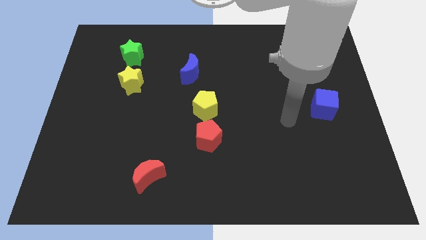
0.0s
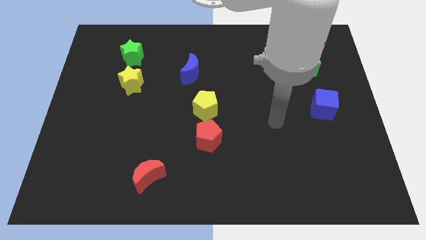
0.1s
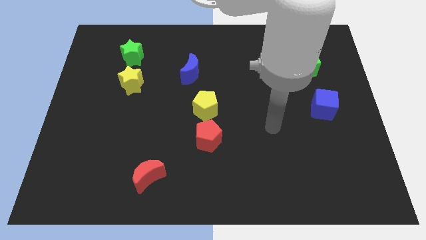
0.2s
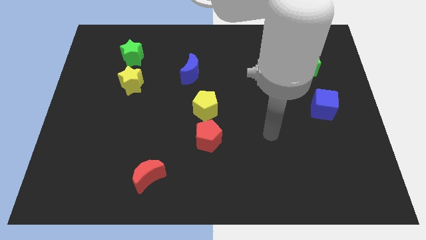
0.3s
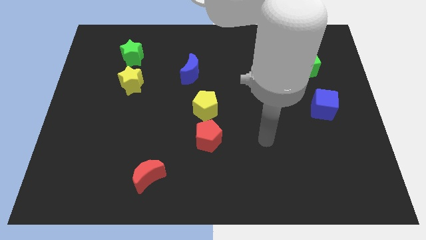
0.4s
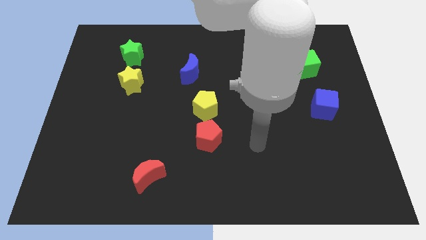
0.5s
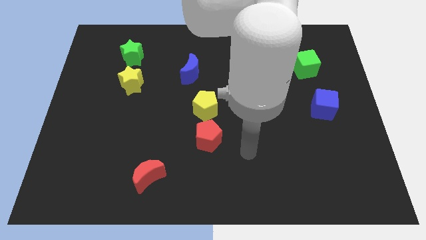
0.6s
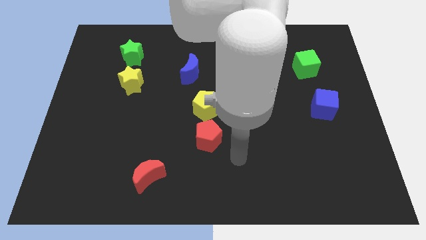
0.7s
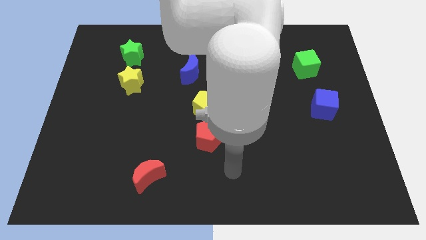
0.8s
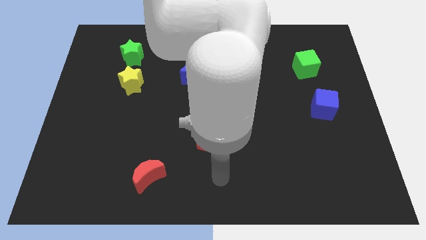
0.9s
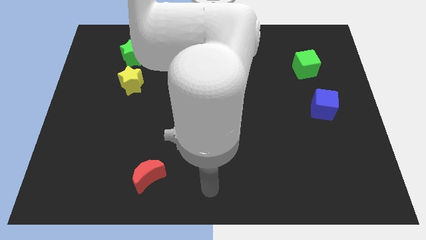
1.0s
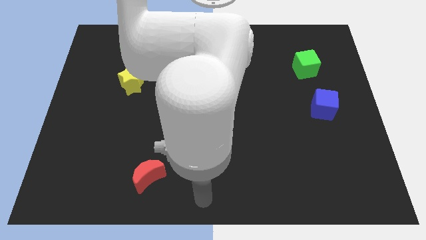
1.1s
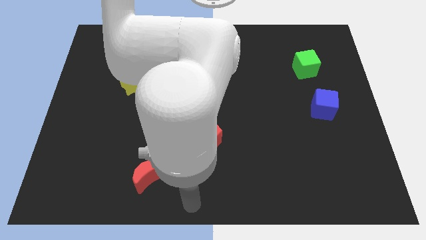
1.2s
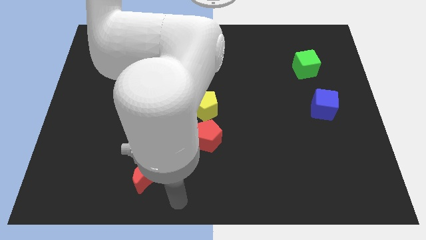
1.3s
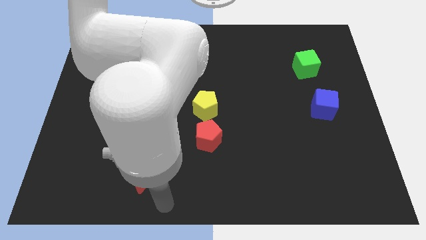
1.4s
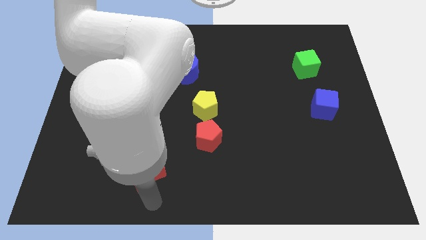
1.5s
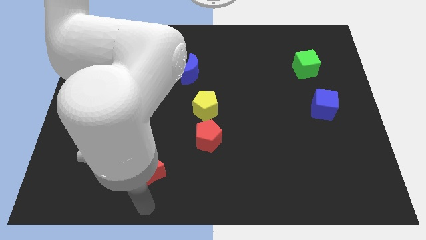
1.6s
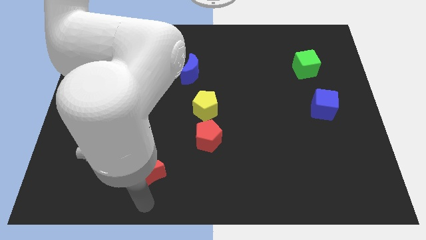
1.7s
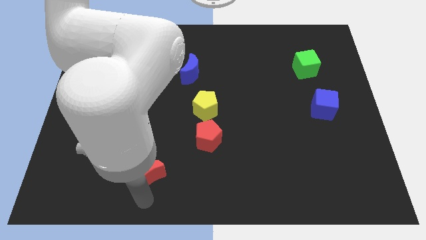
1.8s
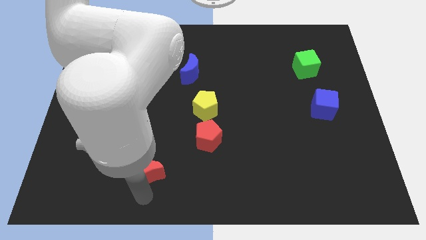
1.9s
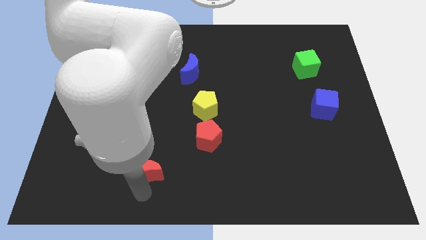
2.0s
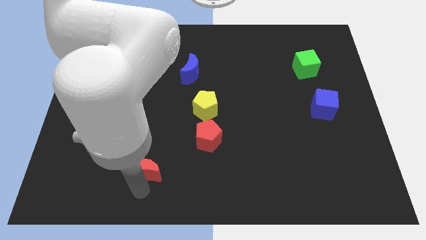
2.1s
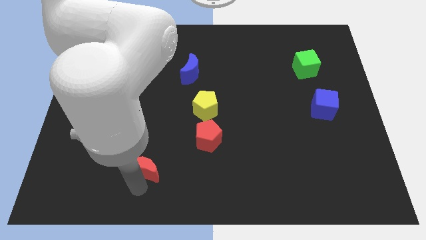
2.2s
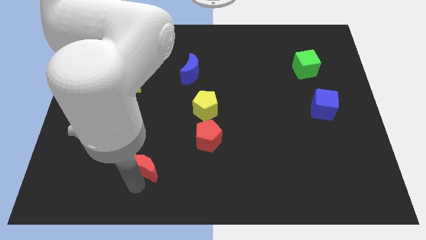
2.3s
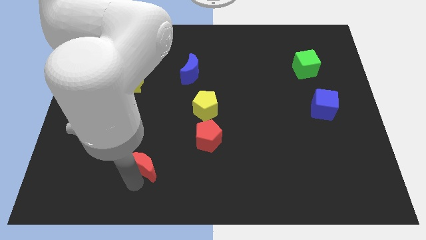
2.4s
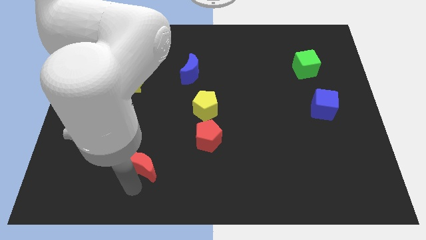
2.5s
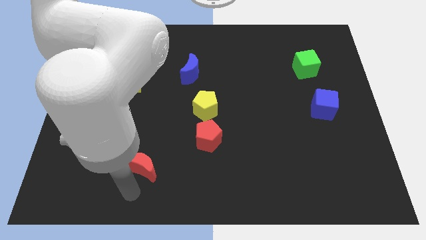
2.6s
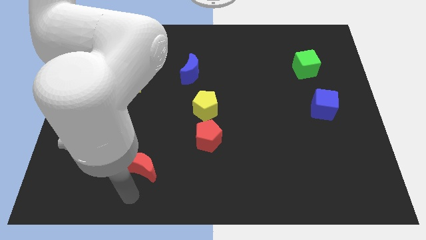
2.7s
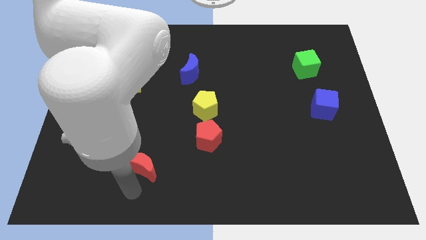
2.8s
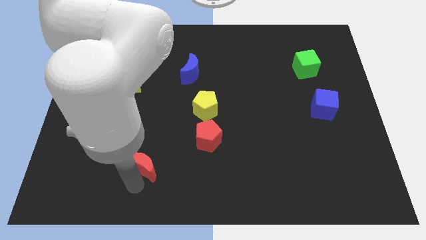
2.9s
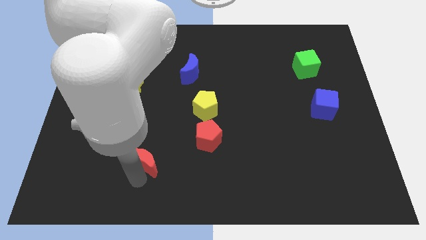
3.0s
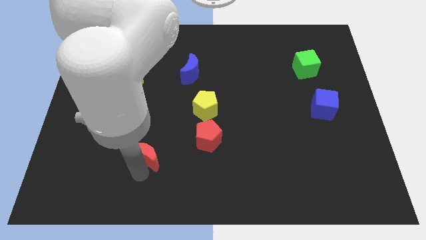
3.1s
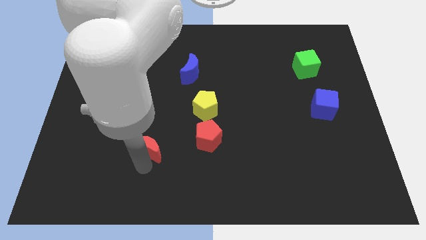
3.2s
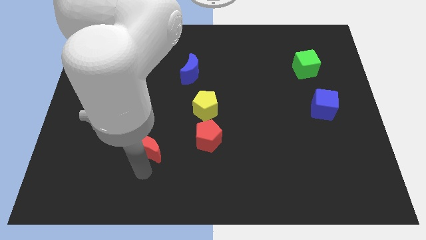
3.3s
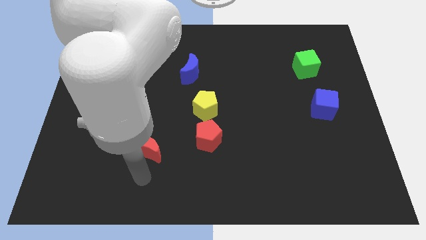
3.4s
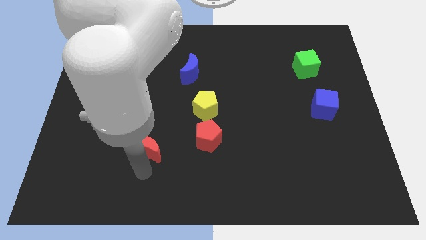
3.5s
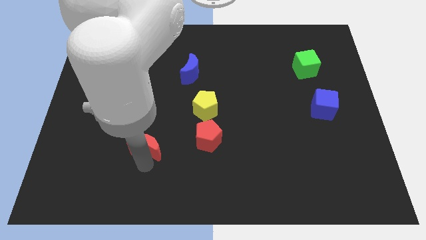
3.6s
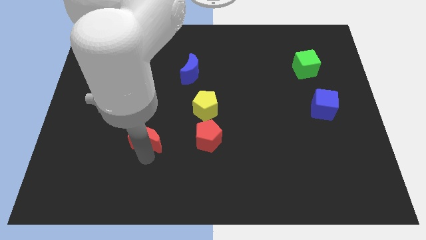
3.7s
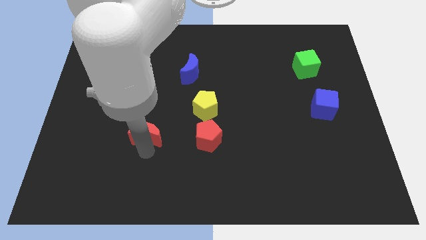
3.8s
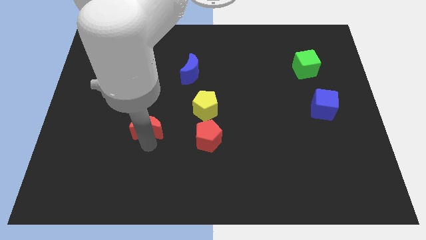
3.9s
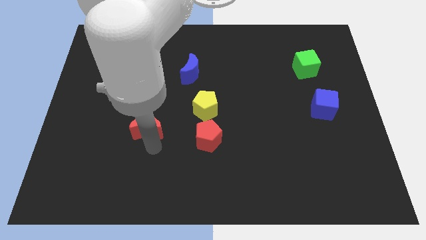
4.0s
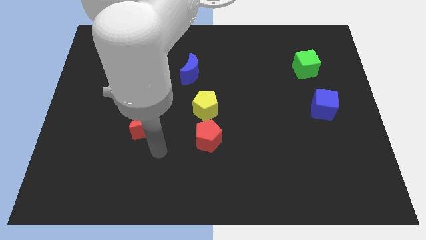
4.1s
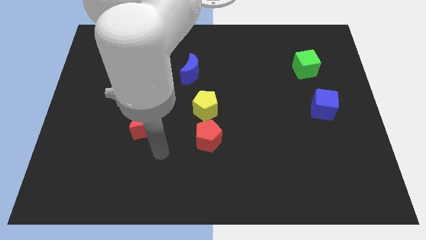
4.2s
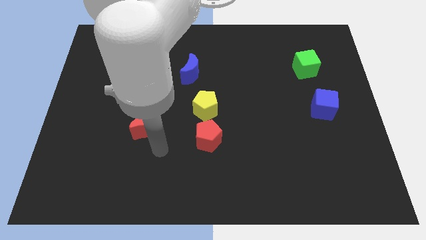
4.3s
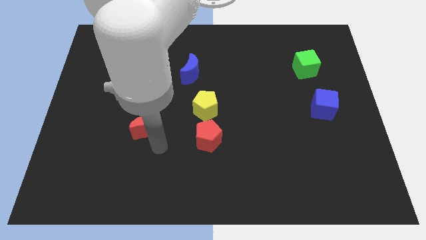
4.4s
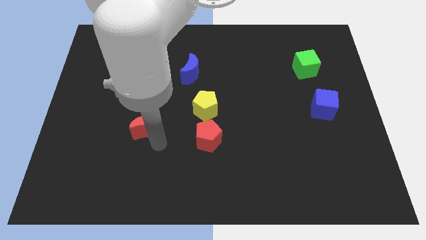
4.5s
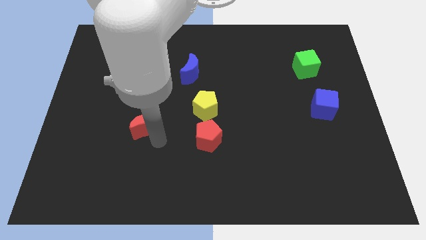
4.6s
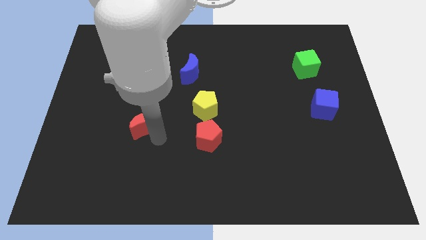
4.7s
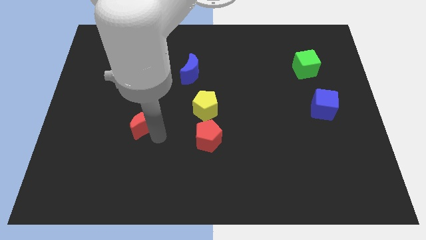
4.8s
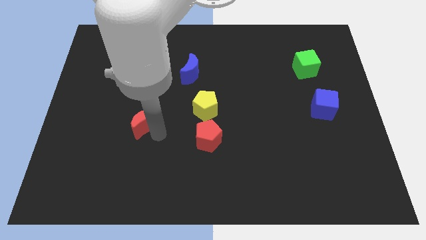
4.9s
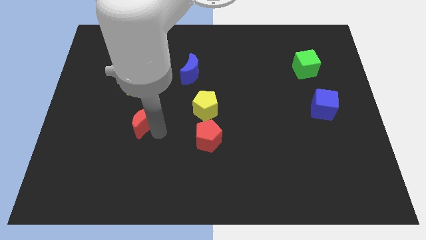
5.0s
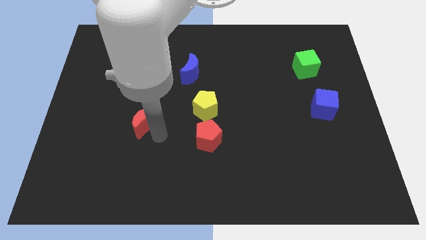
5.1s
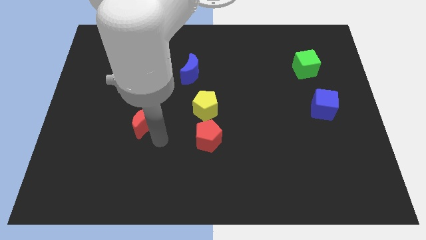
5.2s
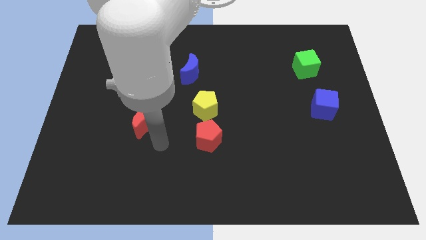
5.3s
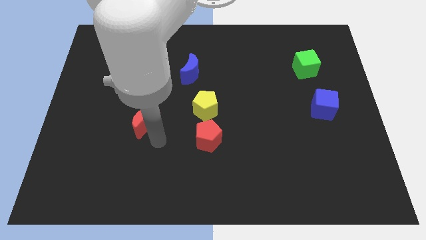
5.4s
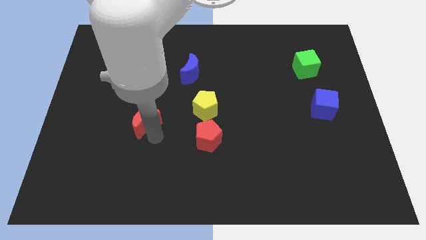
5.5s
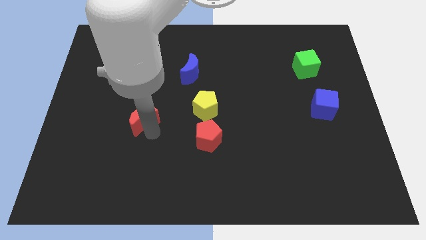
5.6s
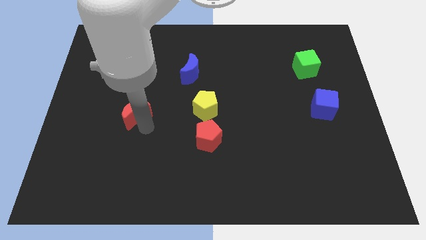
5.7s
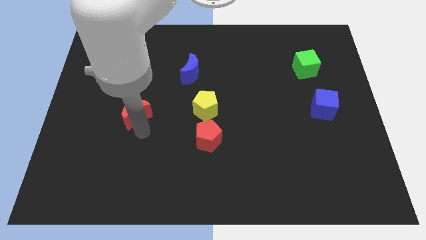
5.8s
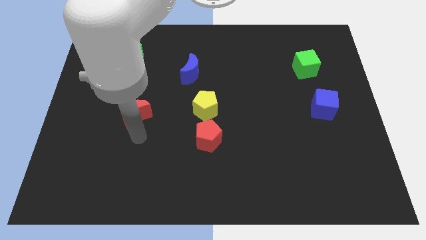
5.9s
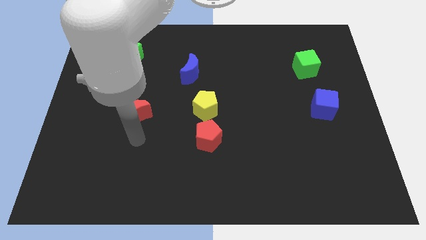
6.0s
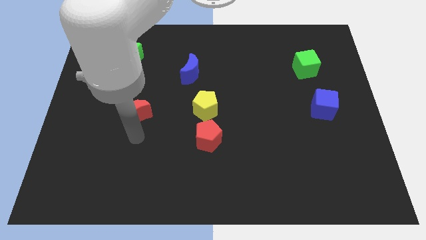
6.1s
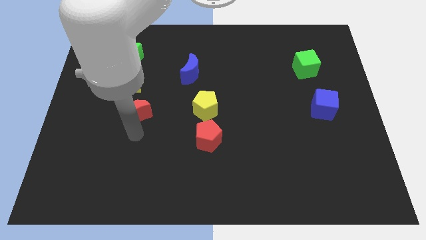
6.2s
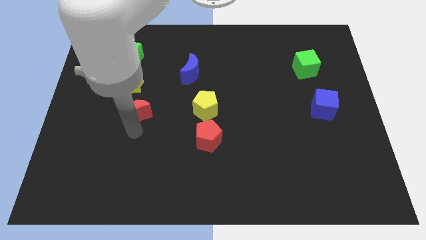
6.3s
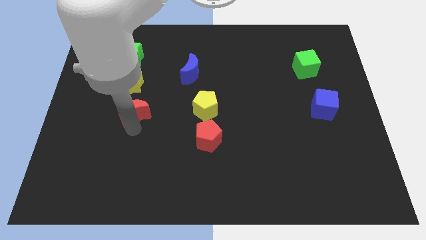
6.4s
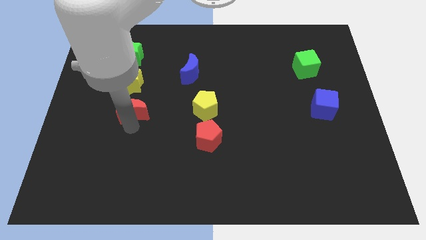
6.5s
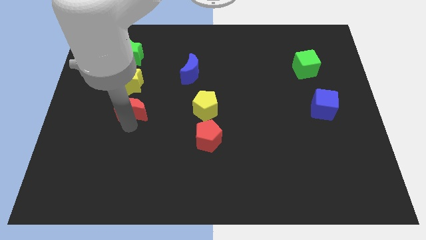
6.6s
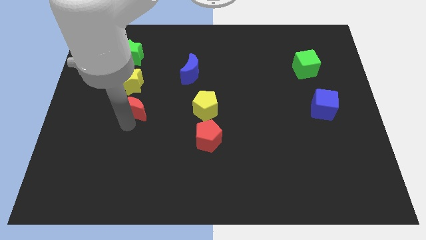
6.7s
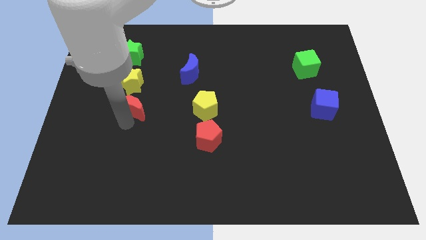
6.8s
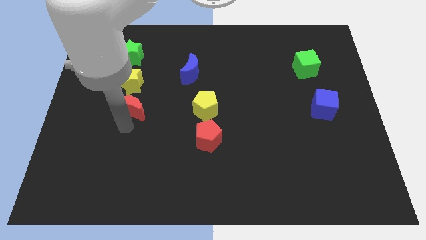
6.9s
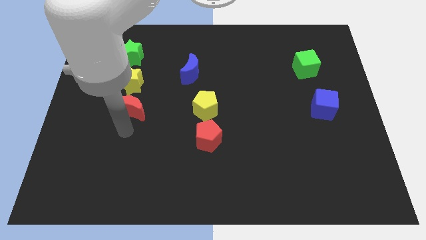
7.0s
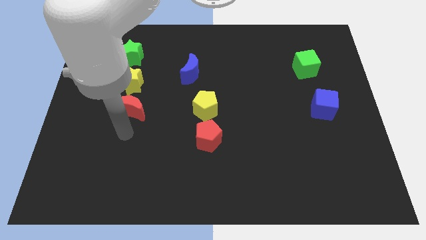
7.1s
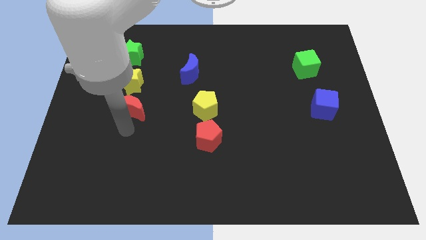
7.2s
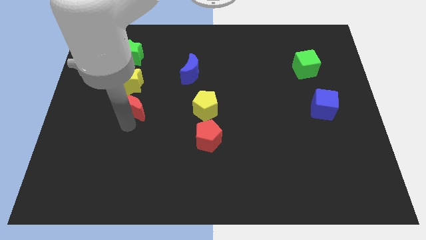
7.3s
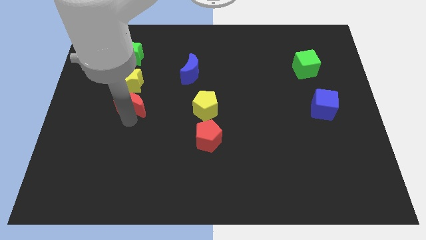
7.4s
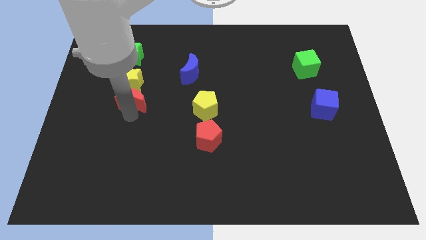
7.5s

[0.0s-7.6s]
move the red moon towards the yellow star
